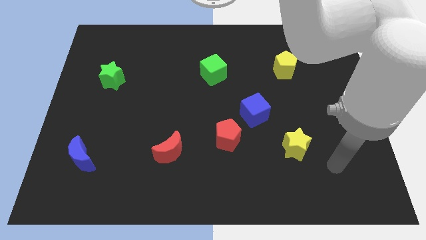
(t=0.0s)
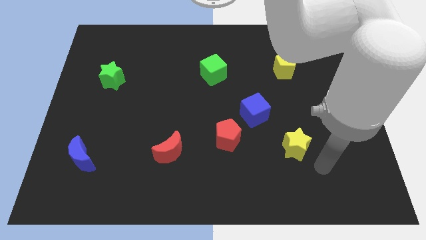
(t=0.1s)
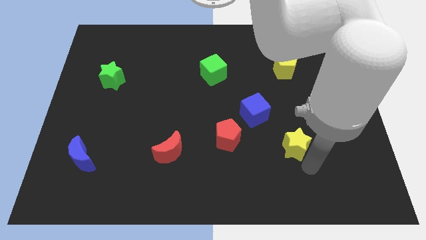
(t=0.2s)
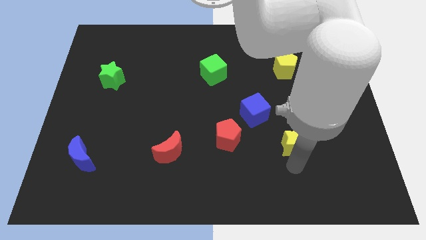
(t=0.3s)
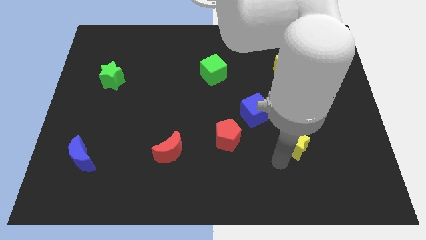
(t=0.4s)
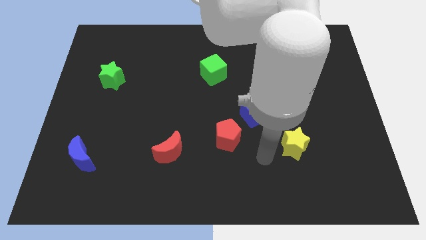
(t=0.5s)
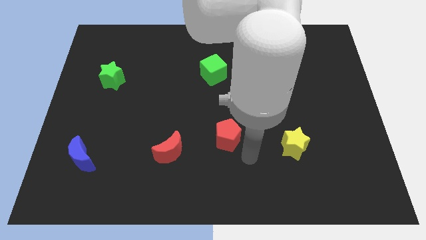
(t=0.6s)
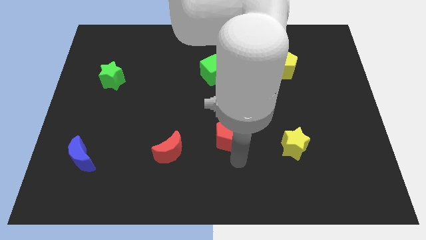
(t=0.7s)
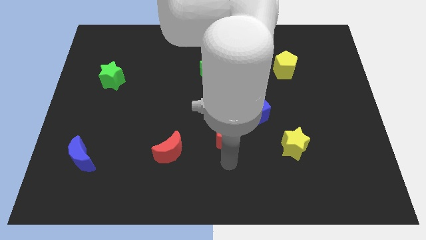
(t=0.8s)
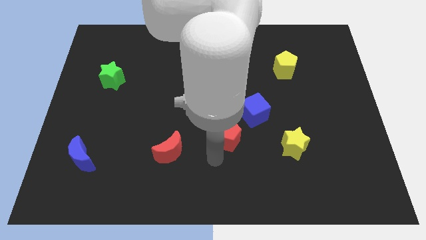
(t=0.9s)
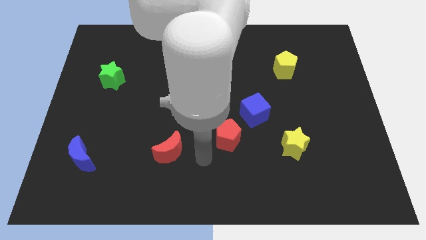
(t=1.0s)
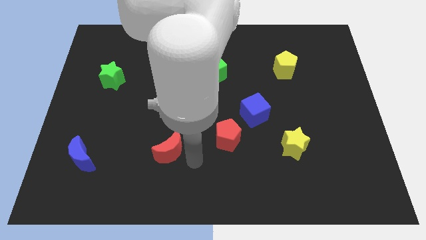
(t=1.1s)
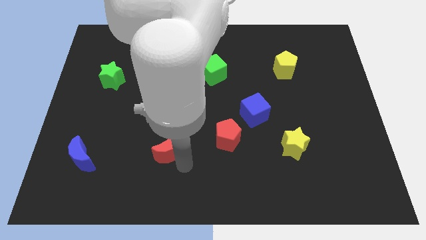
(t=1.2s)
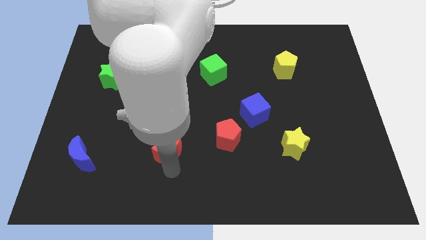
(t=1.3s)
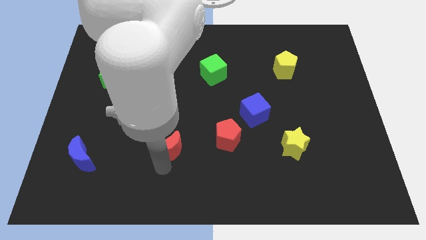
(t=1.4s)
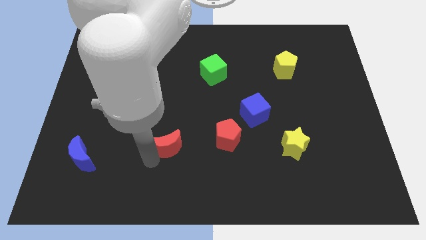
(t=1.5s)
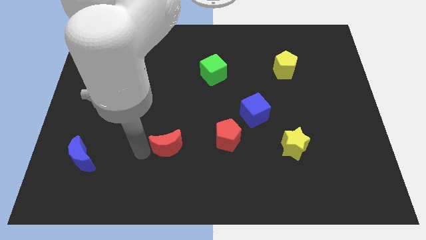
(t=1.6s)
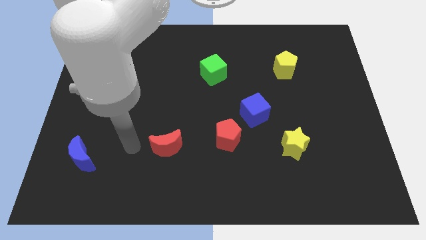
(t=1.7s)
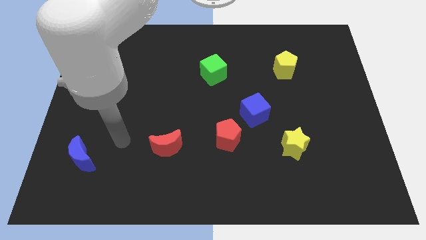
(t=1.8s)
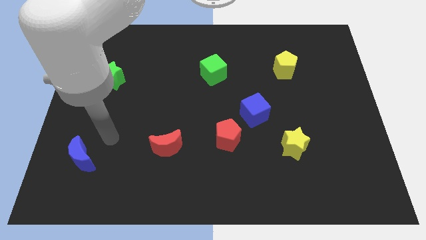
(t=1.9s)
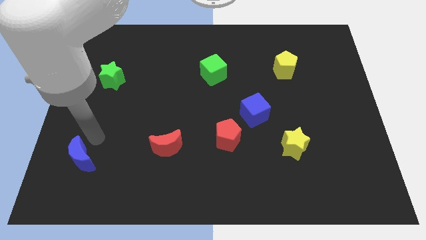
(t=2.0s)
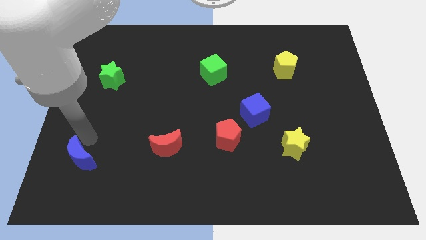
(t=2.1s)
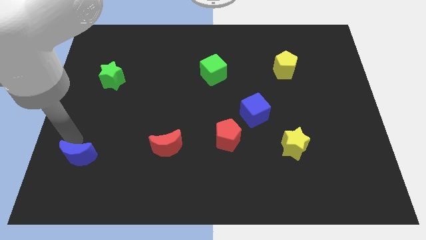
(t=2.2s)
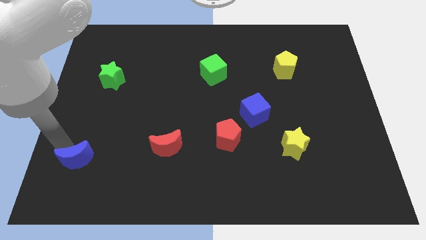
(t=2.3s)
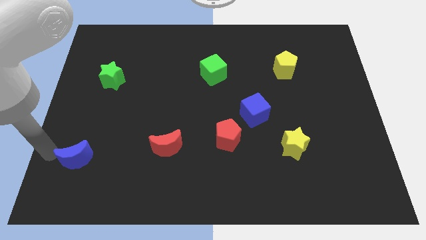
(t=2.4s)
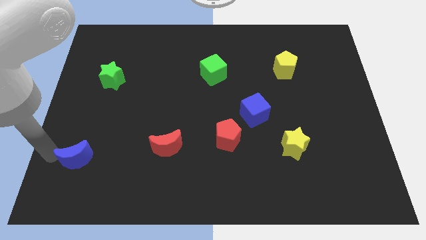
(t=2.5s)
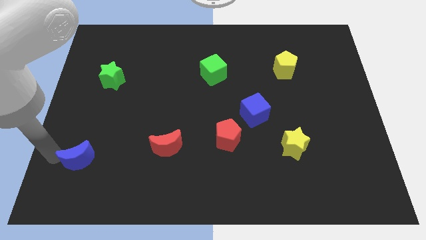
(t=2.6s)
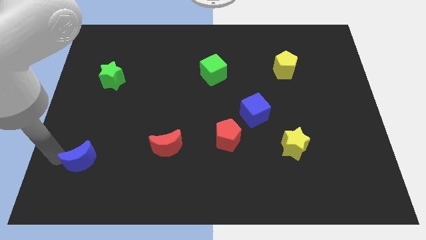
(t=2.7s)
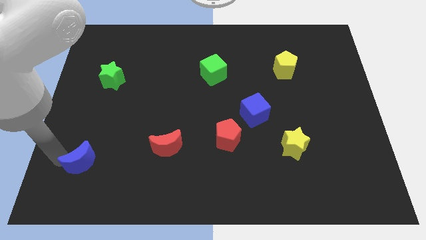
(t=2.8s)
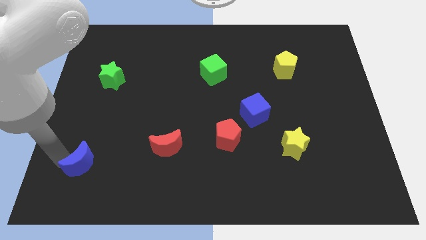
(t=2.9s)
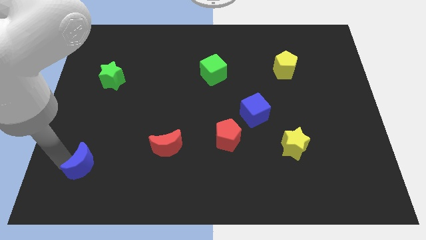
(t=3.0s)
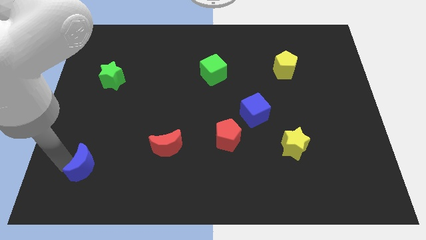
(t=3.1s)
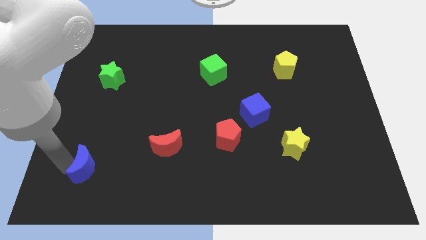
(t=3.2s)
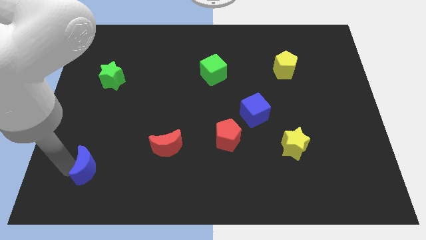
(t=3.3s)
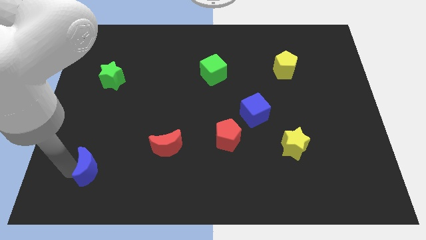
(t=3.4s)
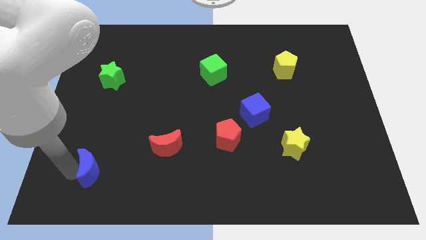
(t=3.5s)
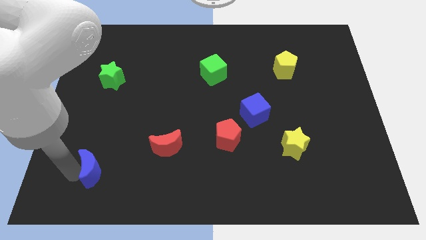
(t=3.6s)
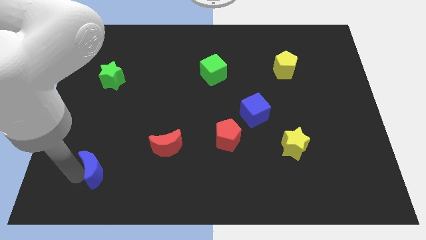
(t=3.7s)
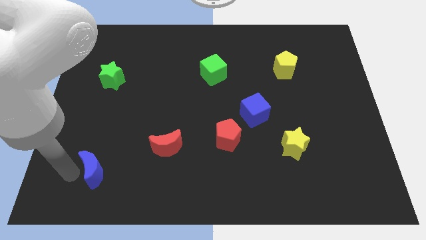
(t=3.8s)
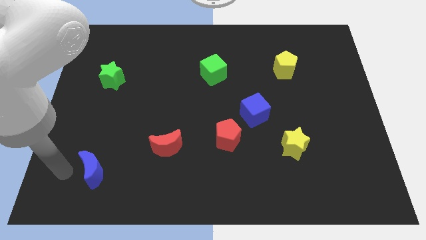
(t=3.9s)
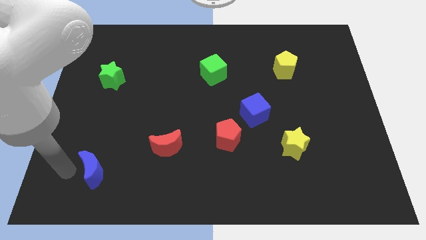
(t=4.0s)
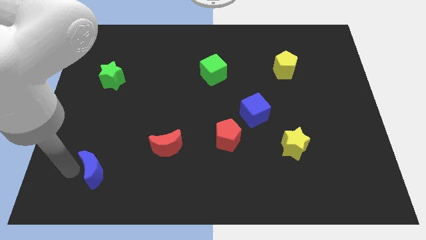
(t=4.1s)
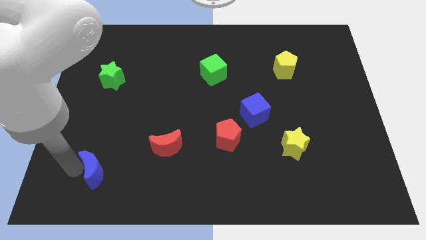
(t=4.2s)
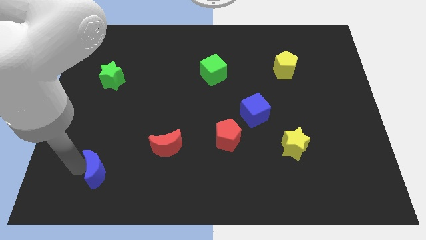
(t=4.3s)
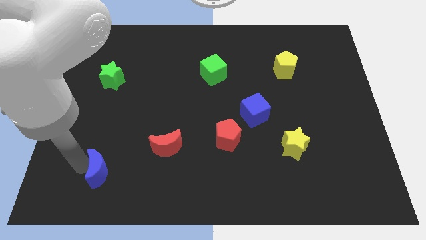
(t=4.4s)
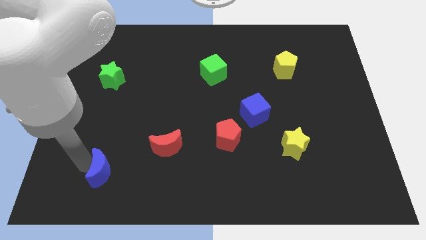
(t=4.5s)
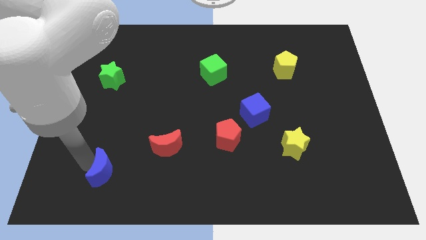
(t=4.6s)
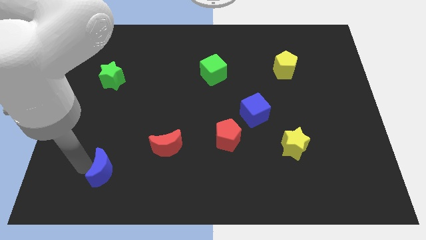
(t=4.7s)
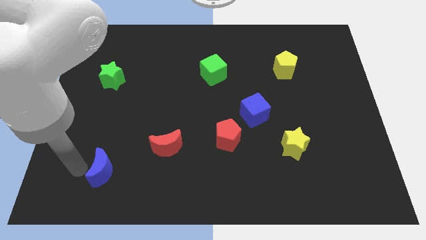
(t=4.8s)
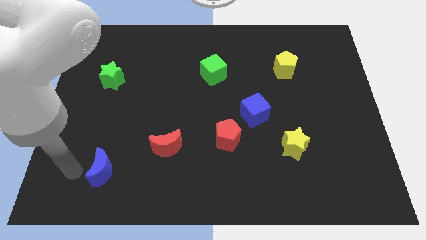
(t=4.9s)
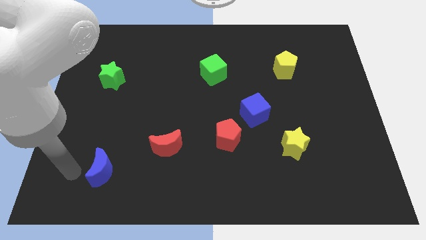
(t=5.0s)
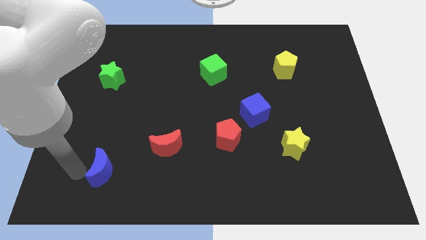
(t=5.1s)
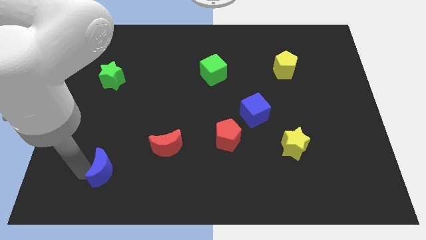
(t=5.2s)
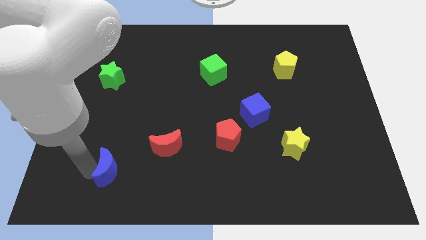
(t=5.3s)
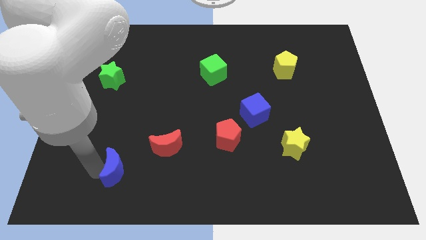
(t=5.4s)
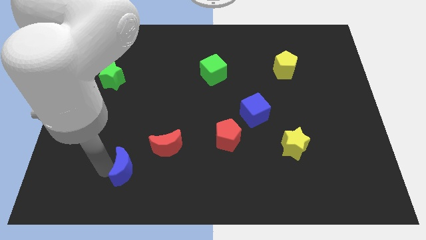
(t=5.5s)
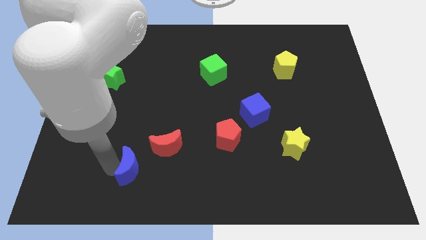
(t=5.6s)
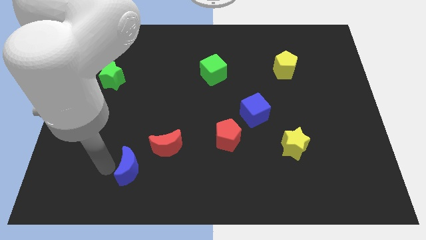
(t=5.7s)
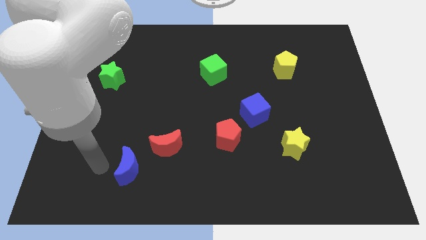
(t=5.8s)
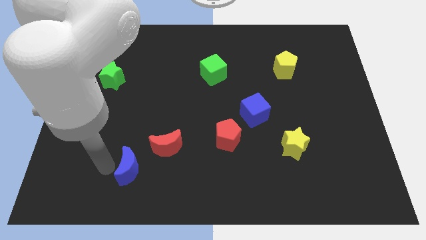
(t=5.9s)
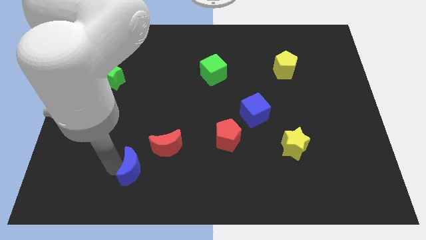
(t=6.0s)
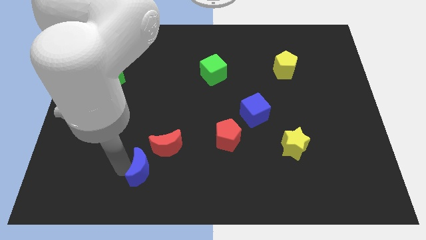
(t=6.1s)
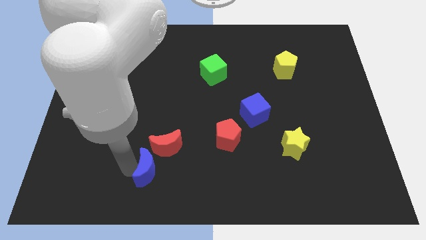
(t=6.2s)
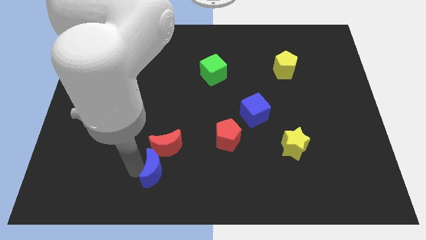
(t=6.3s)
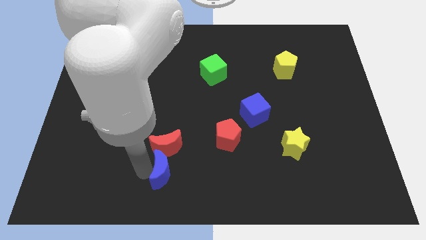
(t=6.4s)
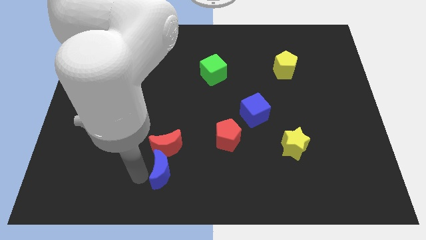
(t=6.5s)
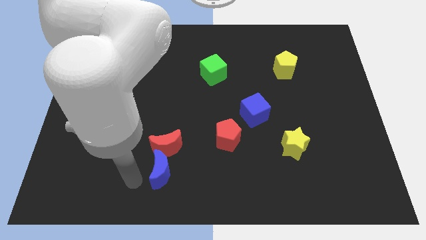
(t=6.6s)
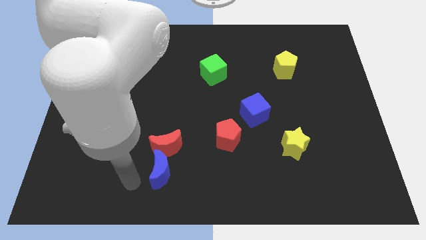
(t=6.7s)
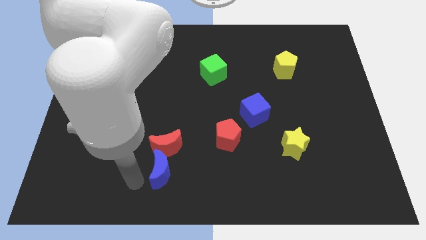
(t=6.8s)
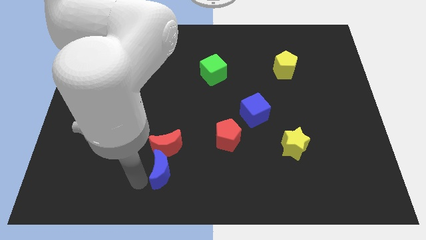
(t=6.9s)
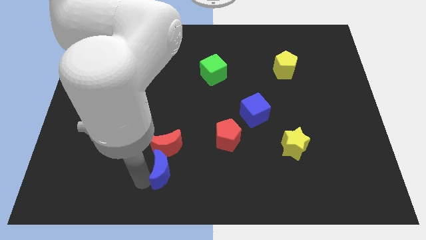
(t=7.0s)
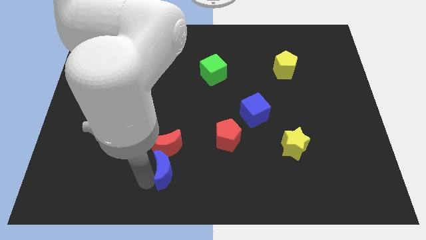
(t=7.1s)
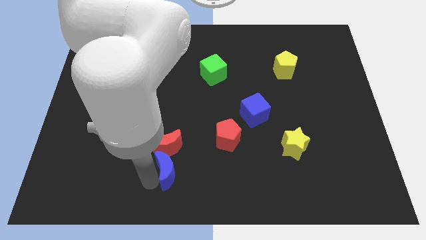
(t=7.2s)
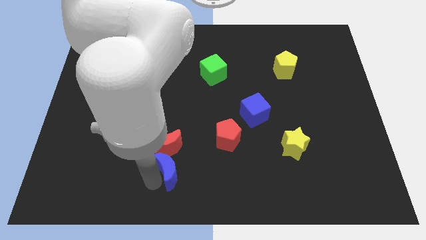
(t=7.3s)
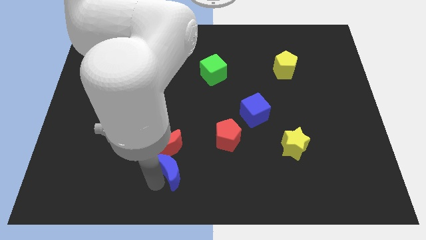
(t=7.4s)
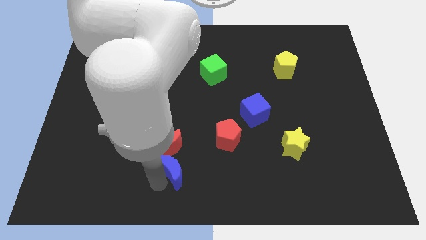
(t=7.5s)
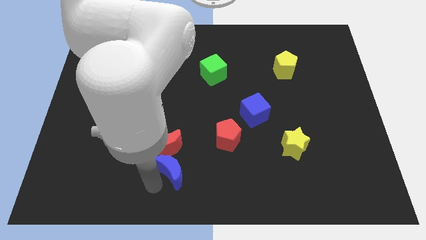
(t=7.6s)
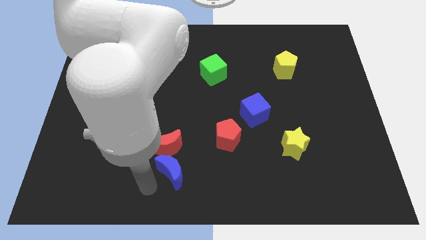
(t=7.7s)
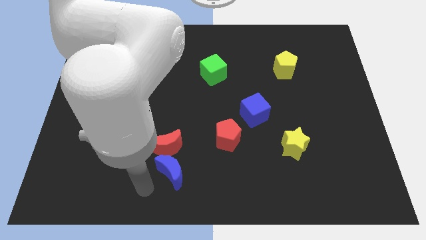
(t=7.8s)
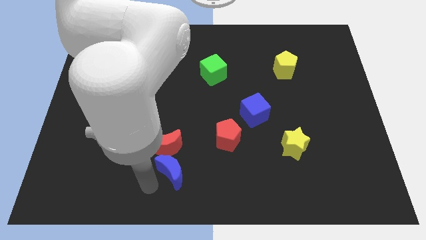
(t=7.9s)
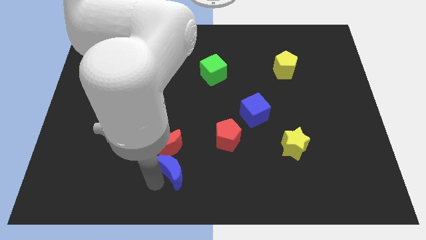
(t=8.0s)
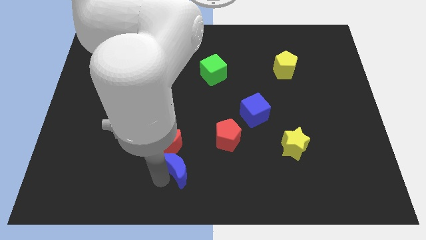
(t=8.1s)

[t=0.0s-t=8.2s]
slide the blue moon right
